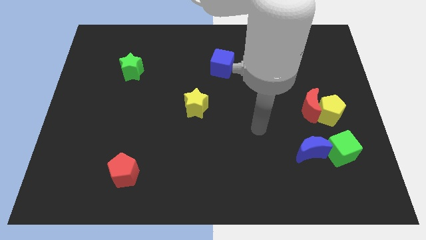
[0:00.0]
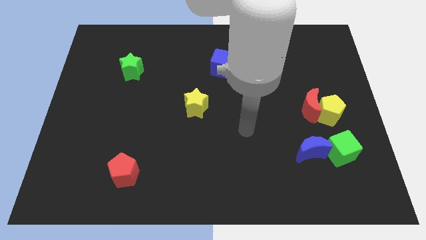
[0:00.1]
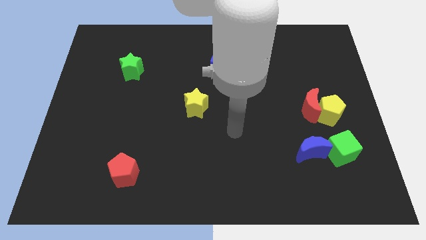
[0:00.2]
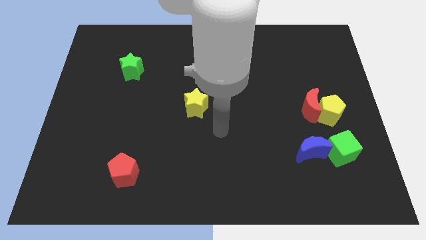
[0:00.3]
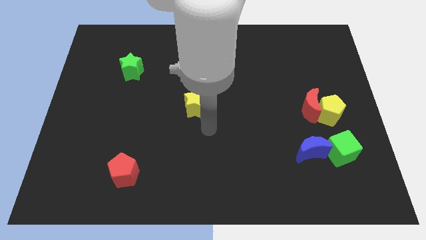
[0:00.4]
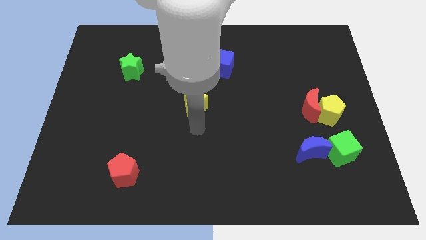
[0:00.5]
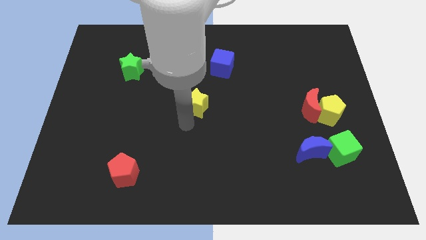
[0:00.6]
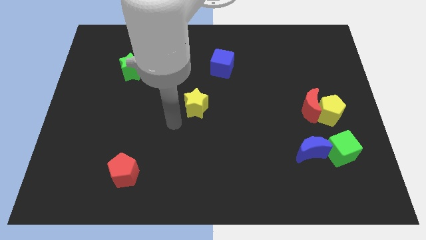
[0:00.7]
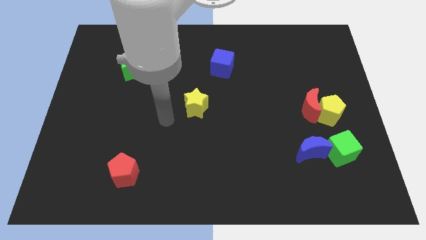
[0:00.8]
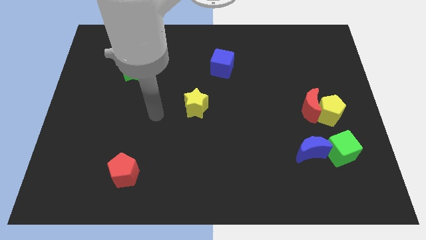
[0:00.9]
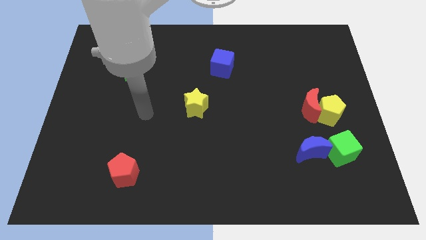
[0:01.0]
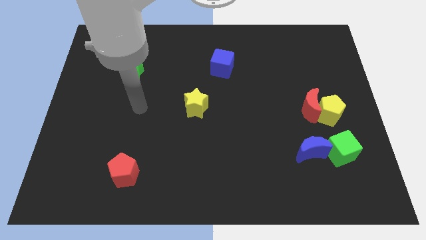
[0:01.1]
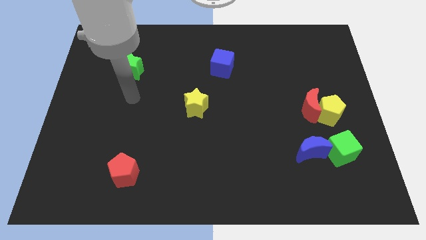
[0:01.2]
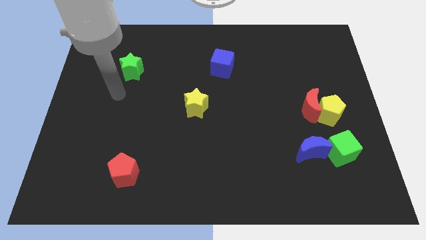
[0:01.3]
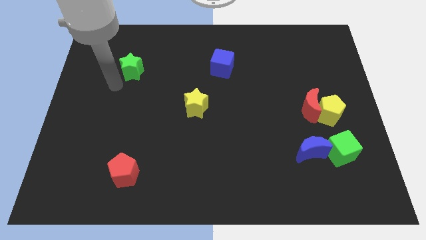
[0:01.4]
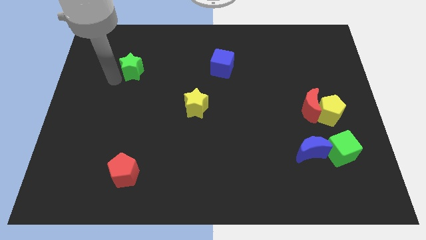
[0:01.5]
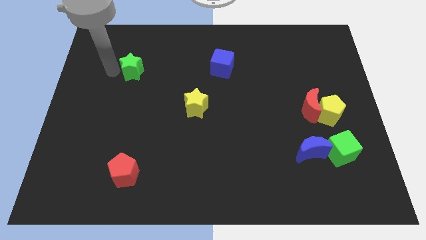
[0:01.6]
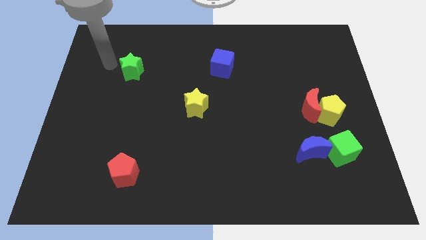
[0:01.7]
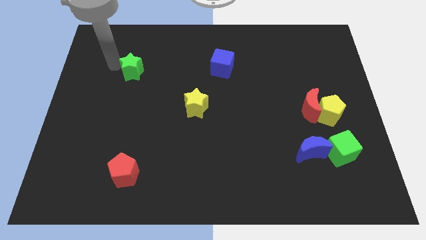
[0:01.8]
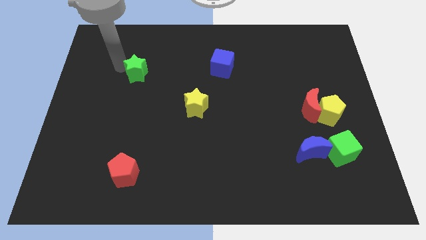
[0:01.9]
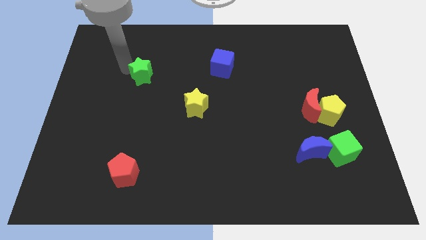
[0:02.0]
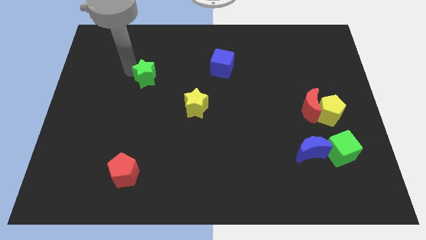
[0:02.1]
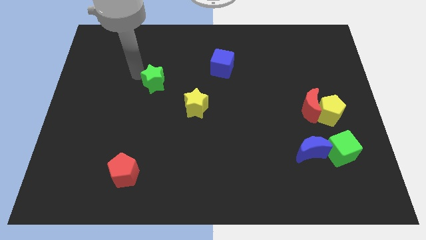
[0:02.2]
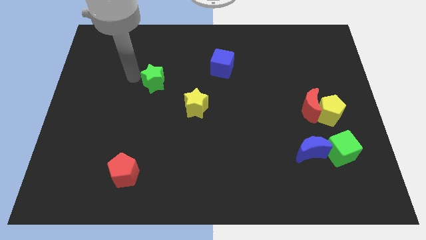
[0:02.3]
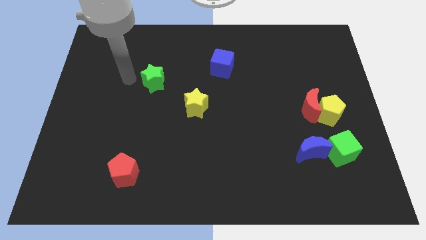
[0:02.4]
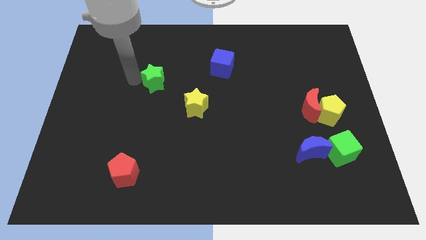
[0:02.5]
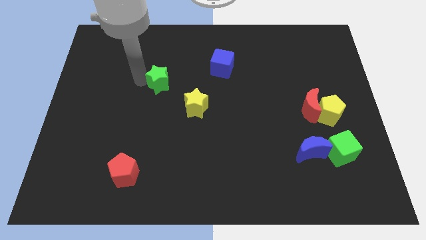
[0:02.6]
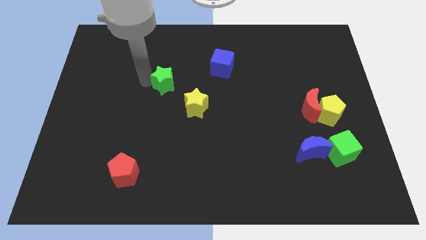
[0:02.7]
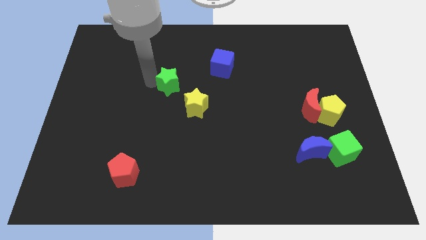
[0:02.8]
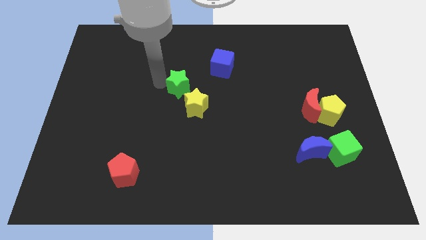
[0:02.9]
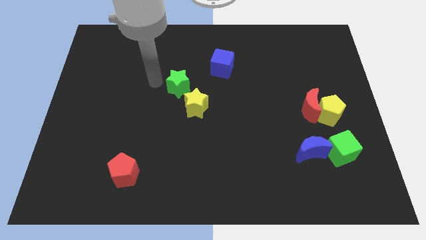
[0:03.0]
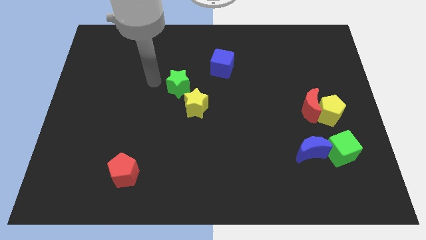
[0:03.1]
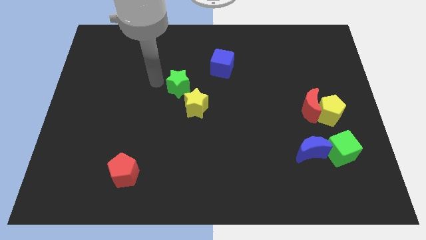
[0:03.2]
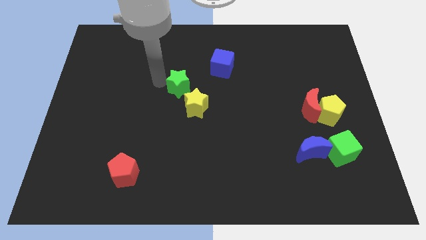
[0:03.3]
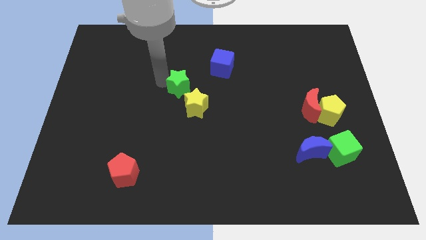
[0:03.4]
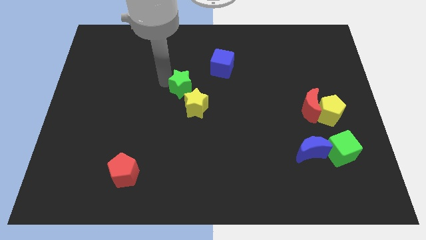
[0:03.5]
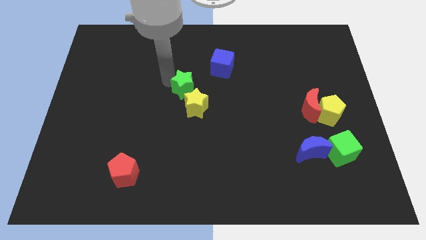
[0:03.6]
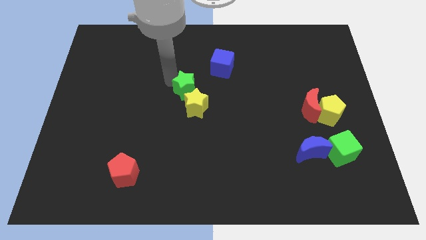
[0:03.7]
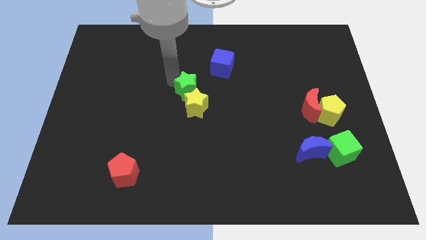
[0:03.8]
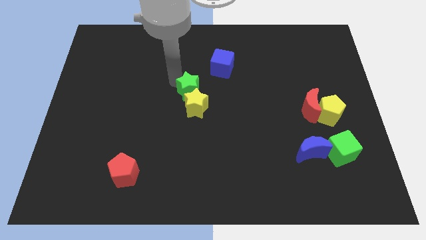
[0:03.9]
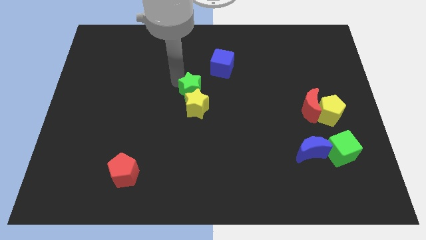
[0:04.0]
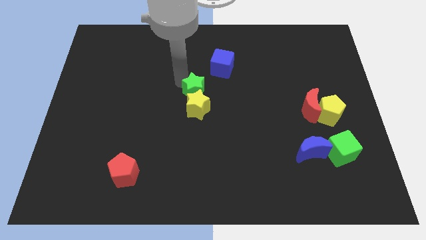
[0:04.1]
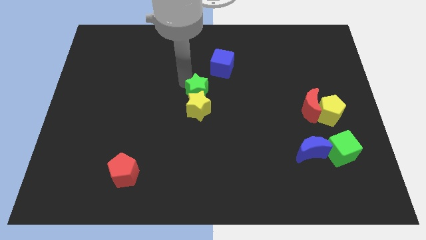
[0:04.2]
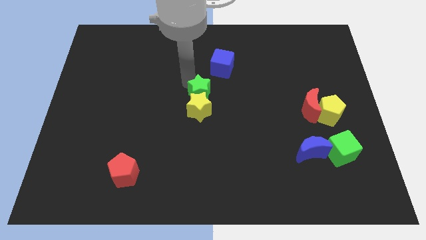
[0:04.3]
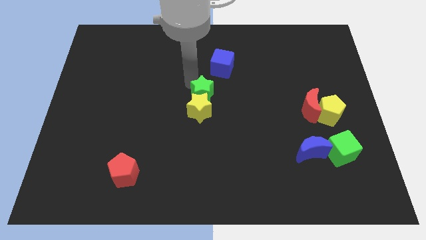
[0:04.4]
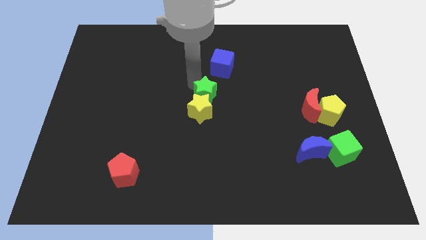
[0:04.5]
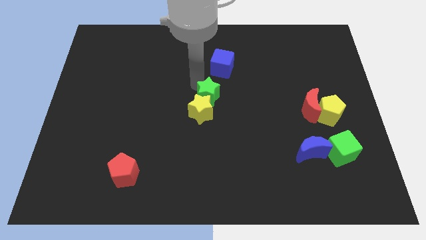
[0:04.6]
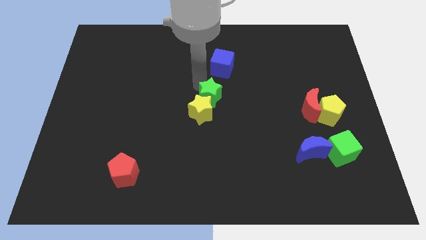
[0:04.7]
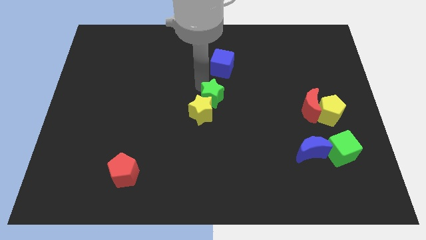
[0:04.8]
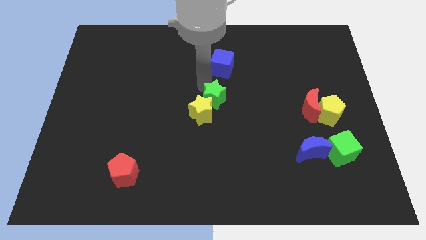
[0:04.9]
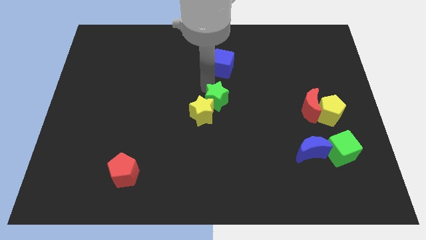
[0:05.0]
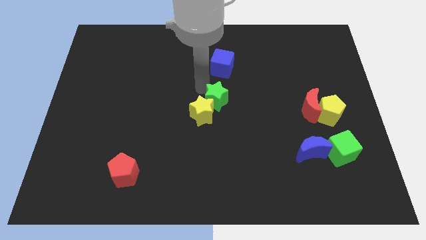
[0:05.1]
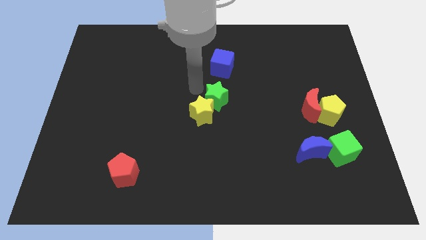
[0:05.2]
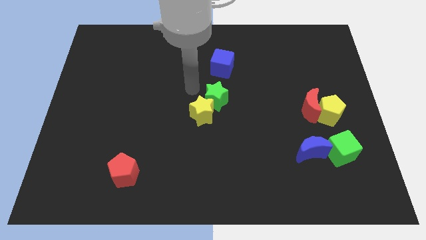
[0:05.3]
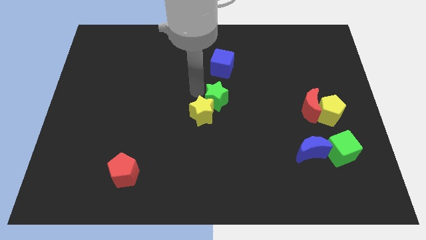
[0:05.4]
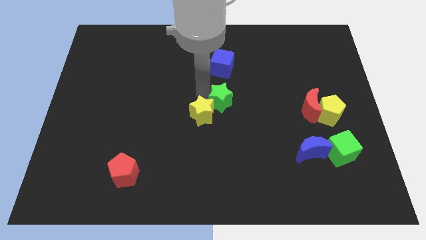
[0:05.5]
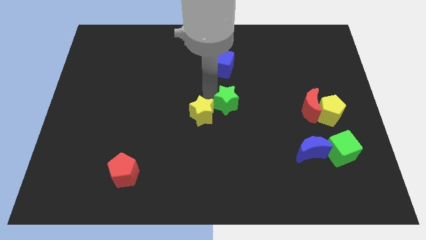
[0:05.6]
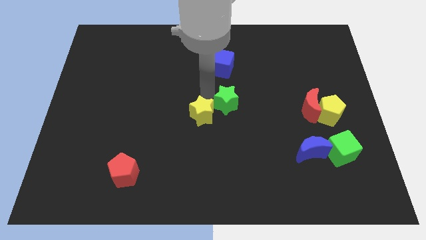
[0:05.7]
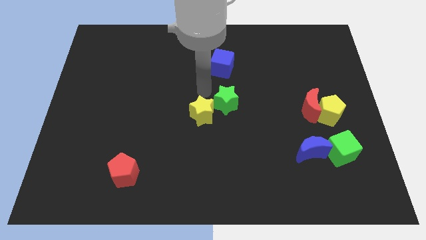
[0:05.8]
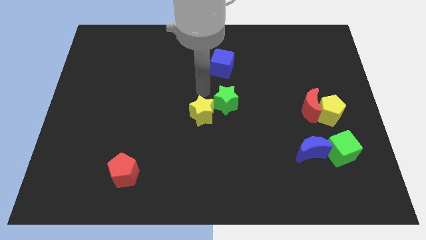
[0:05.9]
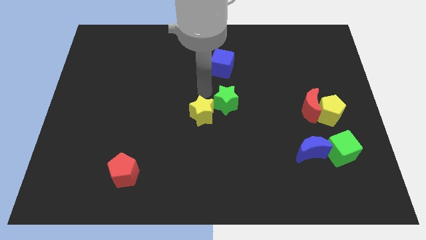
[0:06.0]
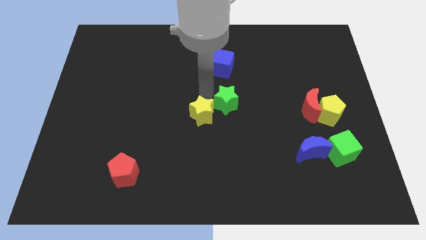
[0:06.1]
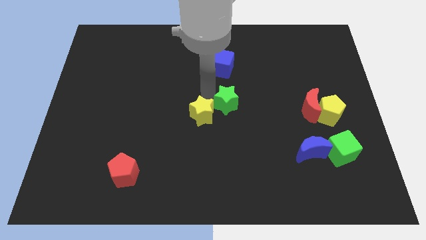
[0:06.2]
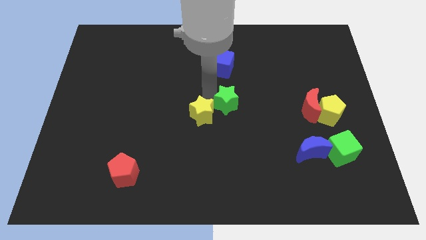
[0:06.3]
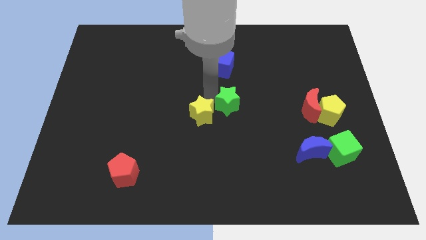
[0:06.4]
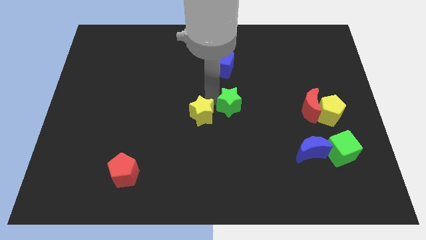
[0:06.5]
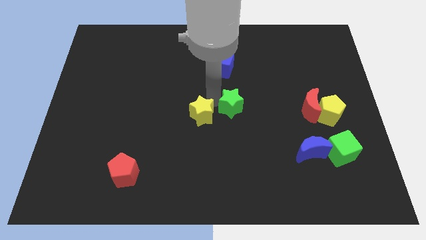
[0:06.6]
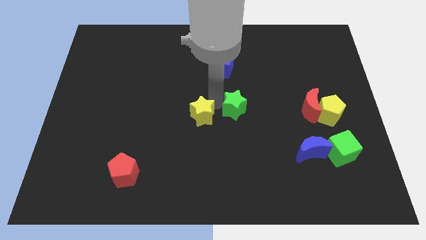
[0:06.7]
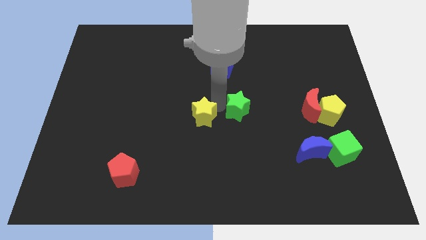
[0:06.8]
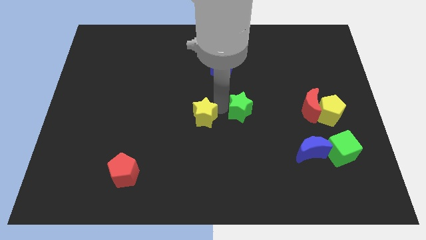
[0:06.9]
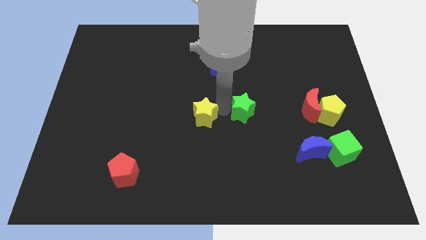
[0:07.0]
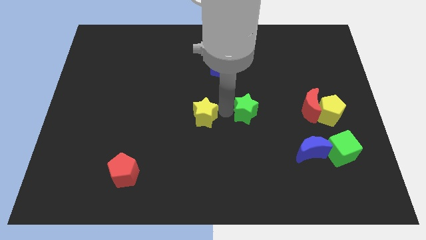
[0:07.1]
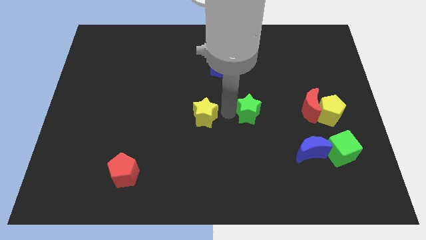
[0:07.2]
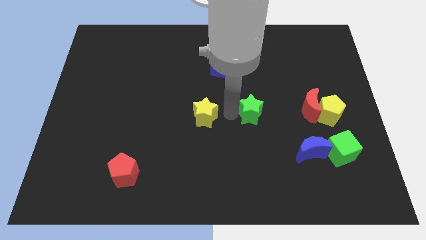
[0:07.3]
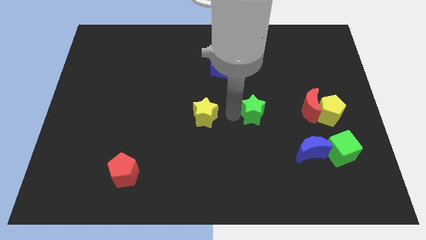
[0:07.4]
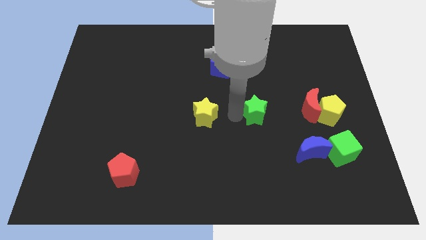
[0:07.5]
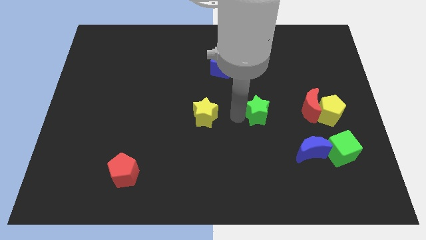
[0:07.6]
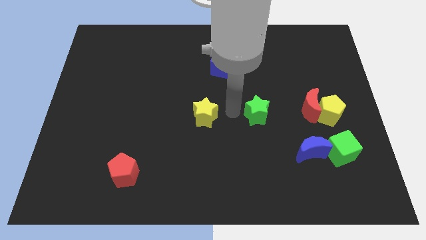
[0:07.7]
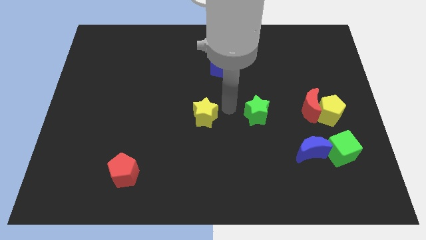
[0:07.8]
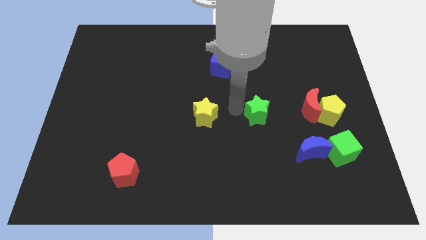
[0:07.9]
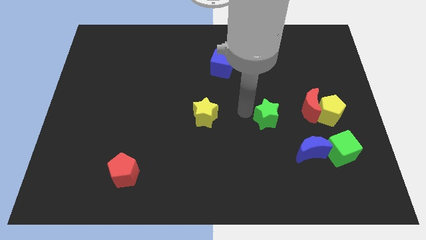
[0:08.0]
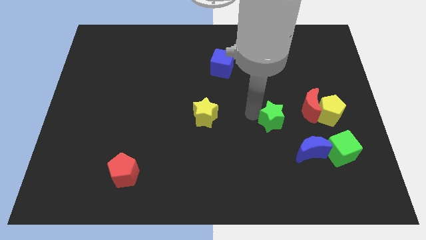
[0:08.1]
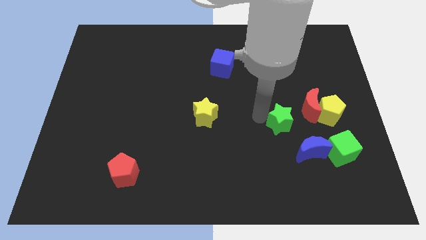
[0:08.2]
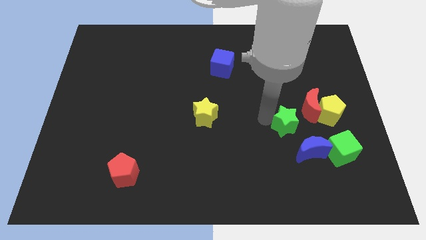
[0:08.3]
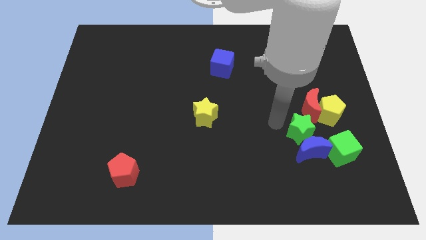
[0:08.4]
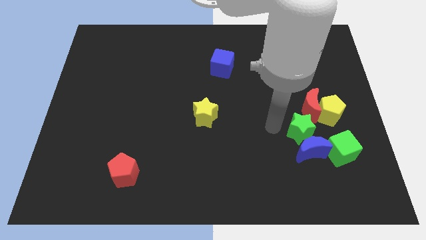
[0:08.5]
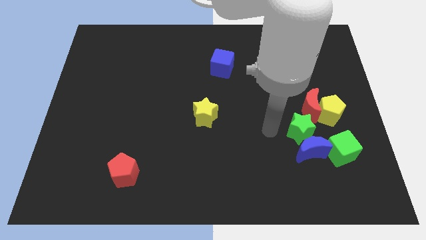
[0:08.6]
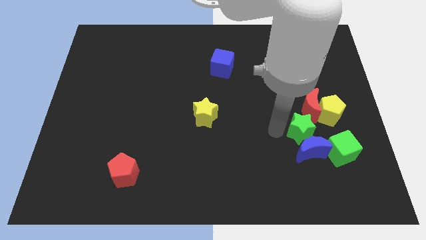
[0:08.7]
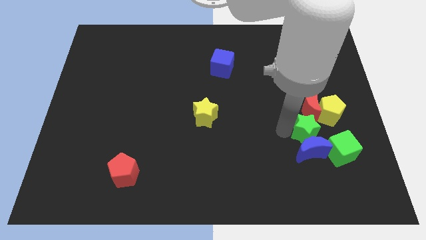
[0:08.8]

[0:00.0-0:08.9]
put the green star to the top right side of the blue moon
